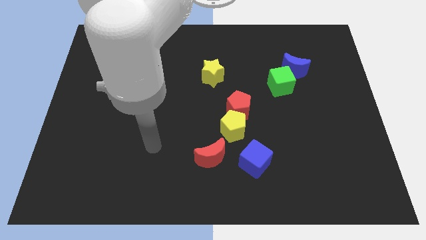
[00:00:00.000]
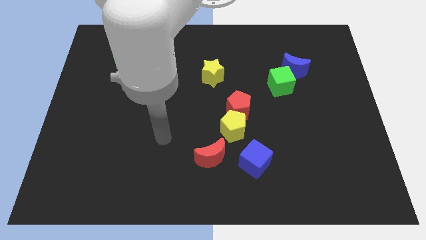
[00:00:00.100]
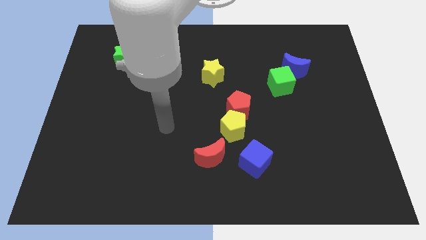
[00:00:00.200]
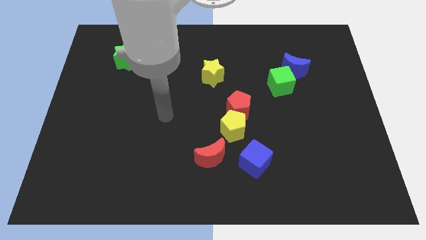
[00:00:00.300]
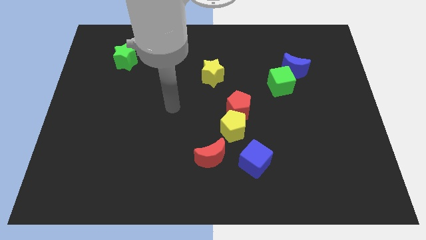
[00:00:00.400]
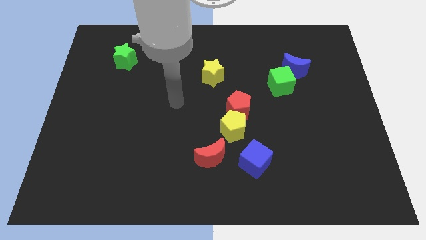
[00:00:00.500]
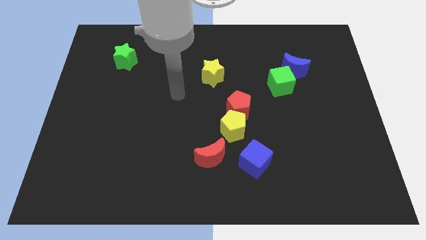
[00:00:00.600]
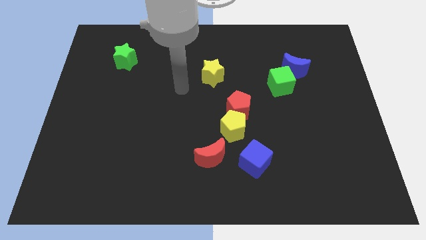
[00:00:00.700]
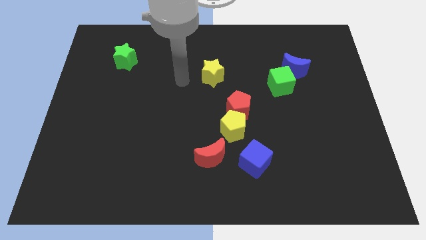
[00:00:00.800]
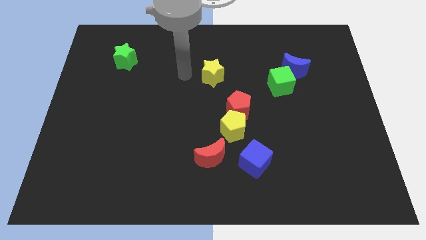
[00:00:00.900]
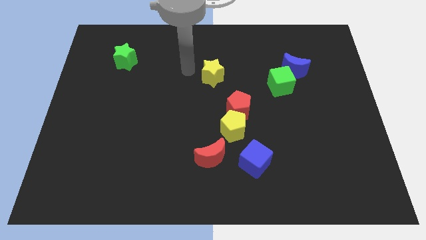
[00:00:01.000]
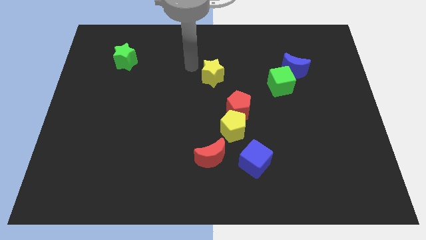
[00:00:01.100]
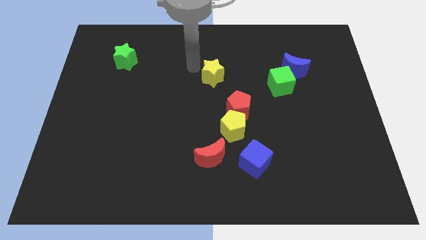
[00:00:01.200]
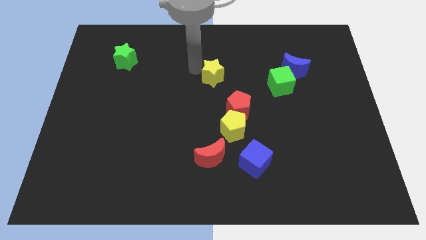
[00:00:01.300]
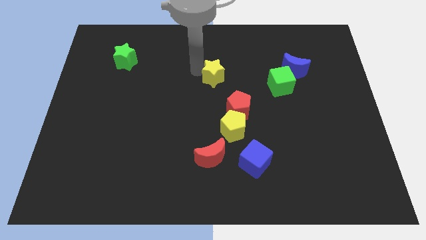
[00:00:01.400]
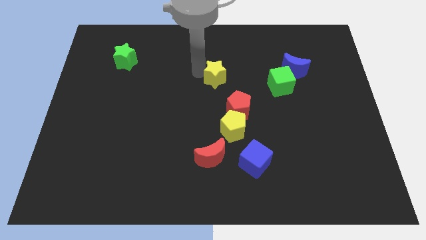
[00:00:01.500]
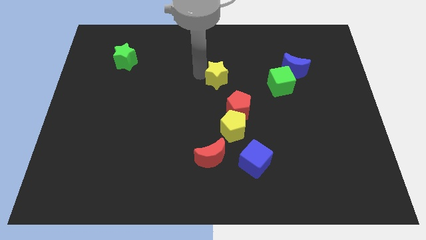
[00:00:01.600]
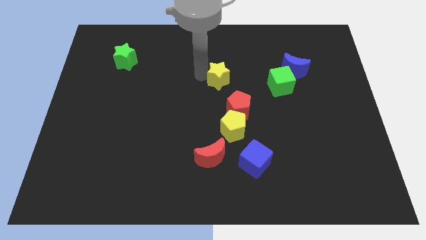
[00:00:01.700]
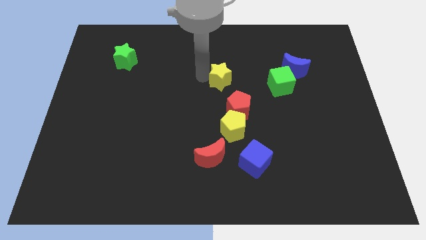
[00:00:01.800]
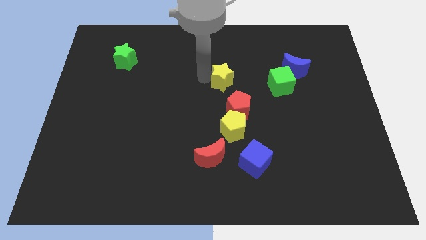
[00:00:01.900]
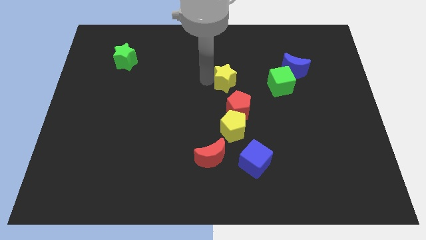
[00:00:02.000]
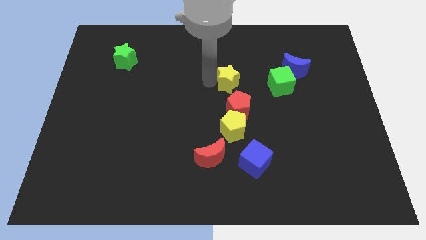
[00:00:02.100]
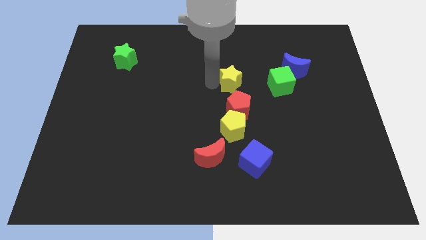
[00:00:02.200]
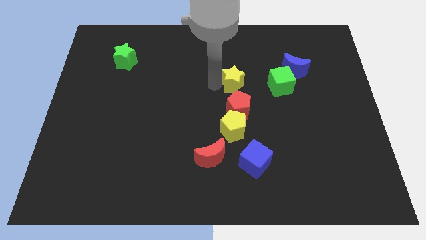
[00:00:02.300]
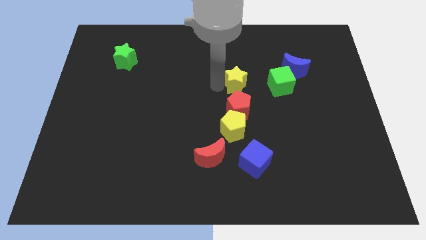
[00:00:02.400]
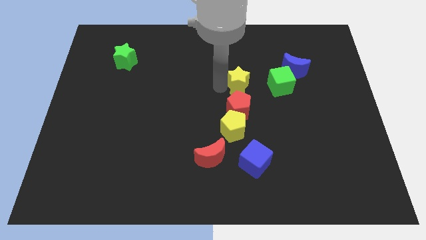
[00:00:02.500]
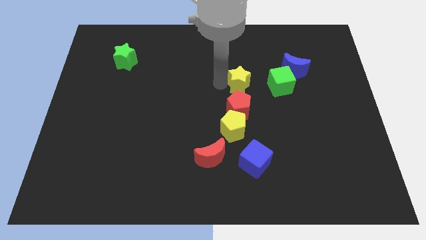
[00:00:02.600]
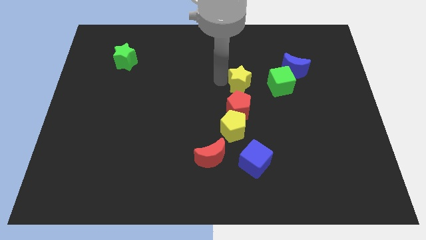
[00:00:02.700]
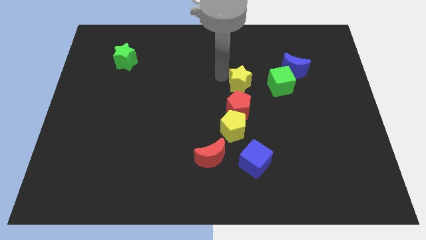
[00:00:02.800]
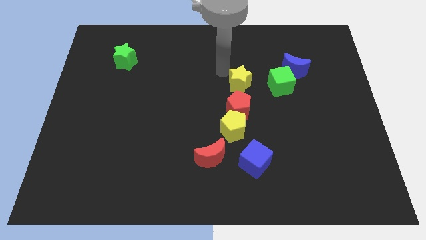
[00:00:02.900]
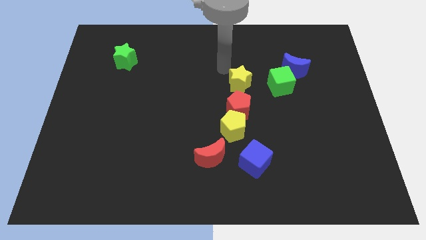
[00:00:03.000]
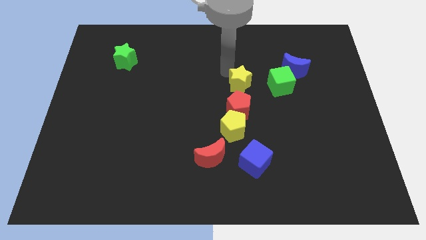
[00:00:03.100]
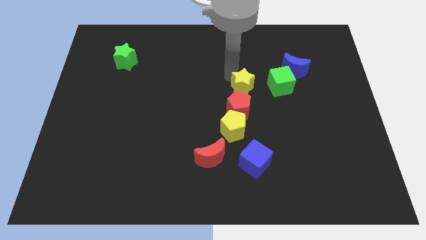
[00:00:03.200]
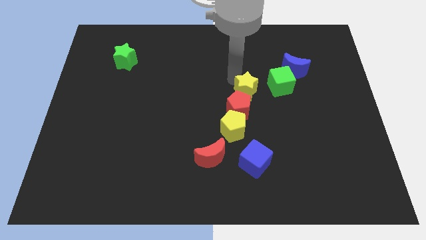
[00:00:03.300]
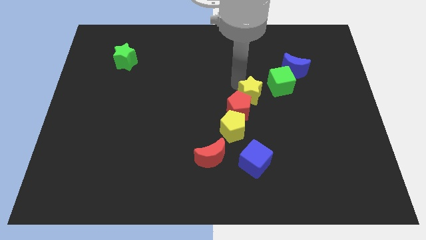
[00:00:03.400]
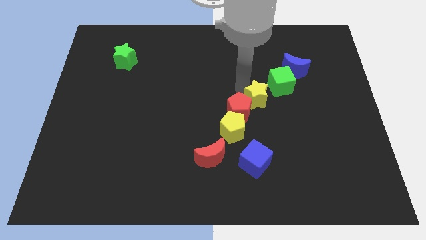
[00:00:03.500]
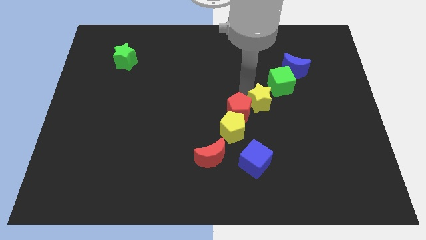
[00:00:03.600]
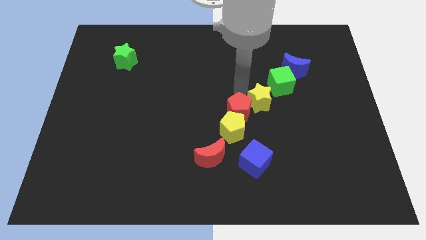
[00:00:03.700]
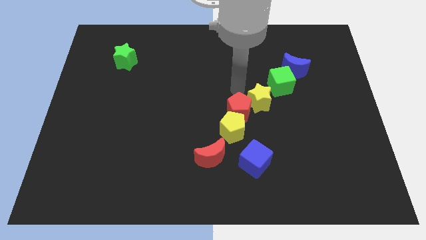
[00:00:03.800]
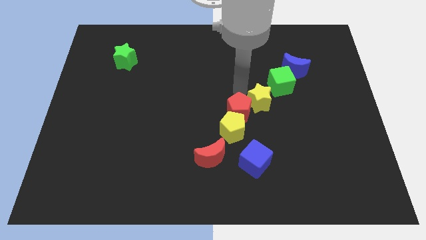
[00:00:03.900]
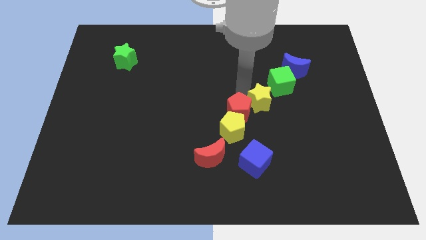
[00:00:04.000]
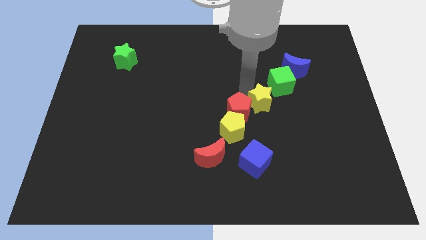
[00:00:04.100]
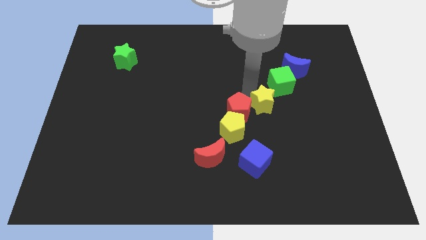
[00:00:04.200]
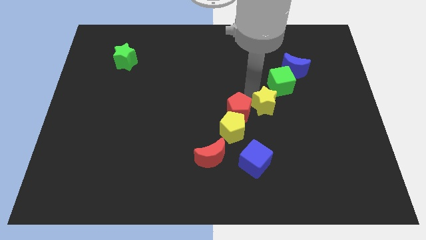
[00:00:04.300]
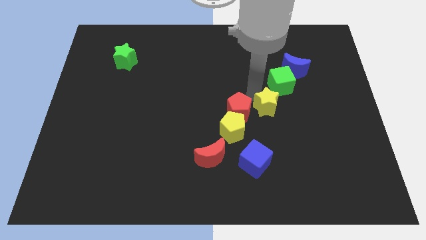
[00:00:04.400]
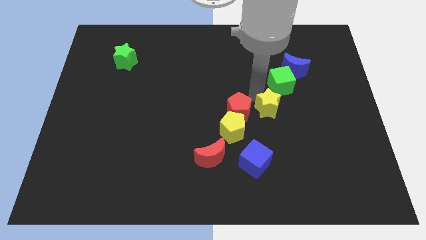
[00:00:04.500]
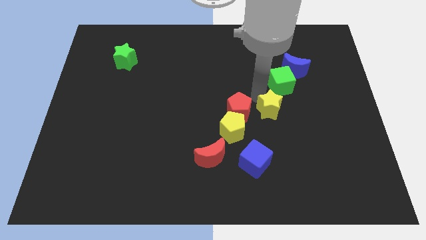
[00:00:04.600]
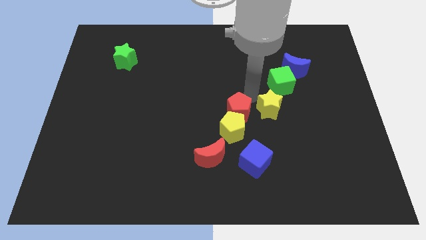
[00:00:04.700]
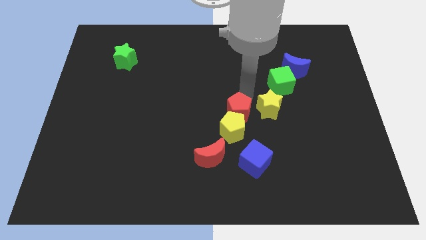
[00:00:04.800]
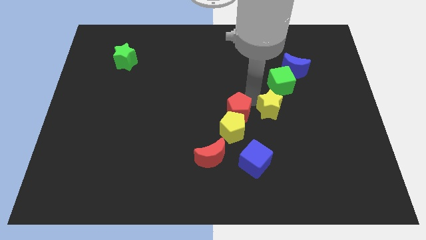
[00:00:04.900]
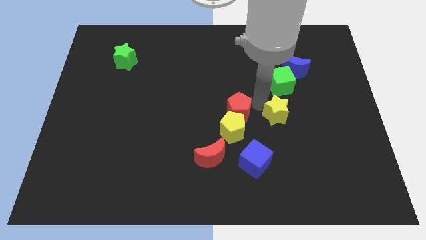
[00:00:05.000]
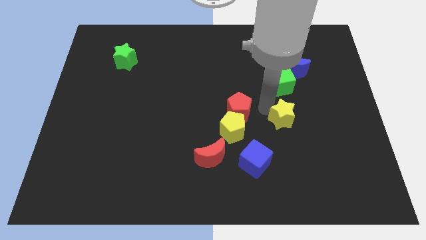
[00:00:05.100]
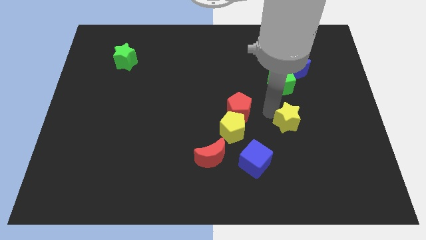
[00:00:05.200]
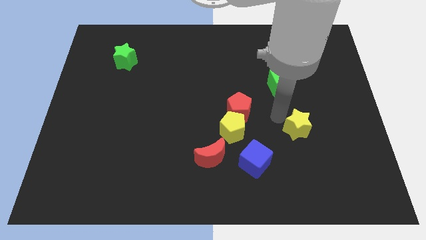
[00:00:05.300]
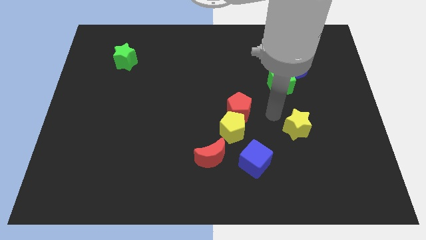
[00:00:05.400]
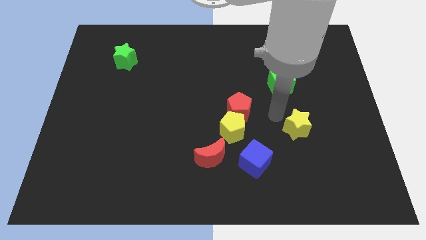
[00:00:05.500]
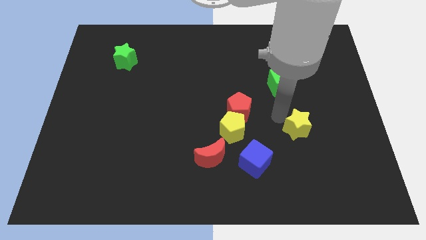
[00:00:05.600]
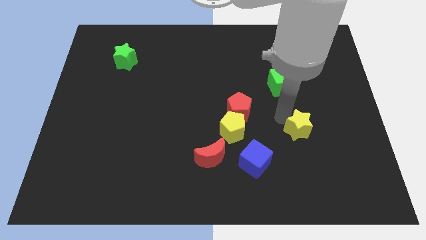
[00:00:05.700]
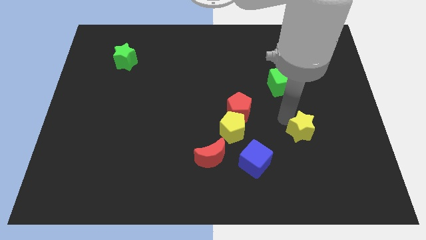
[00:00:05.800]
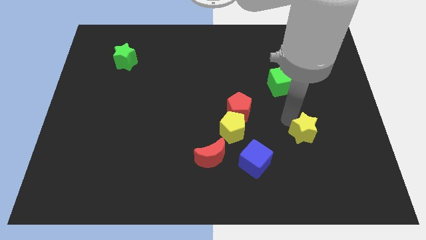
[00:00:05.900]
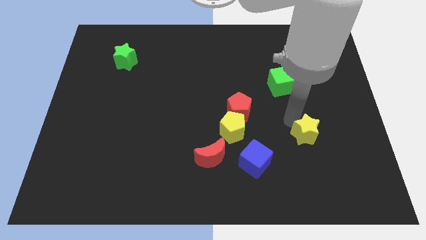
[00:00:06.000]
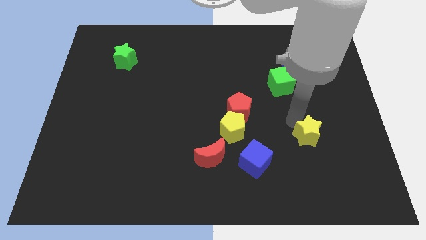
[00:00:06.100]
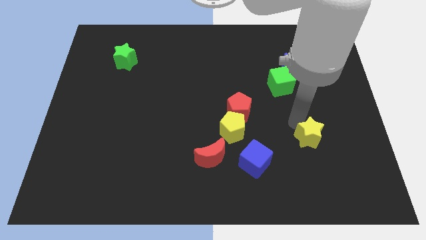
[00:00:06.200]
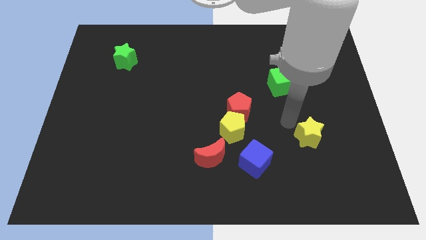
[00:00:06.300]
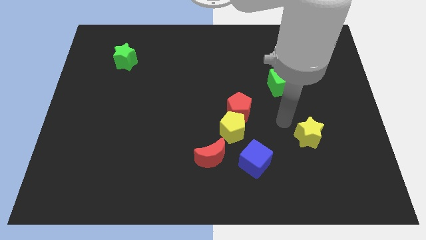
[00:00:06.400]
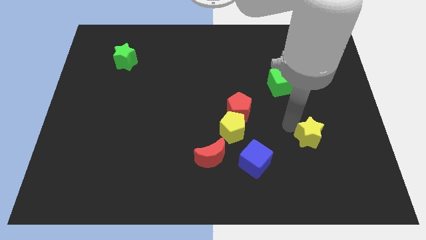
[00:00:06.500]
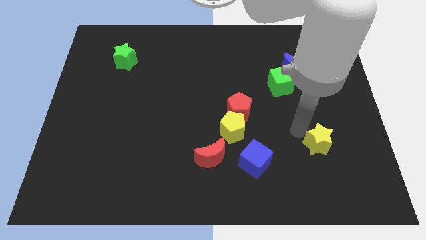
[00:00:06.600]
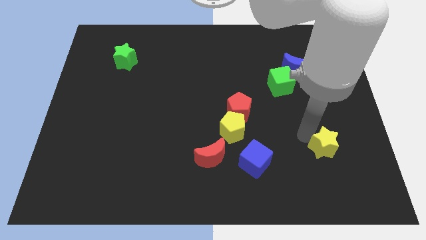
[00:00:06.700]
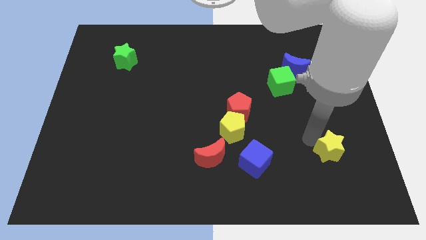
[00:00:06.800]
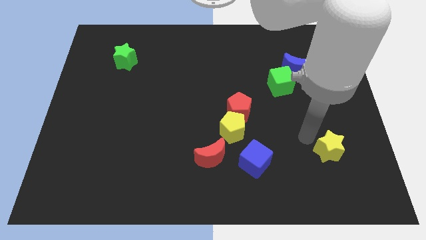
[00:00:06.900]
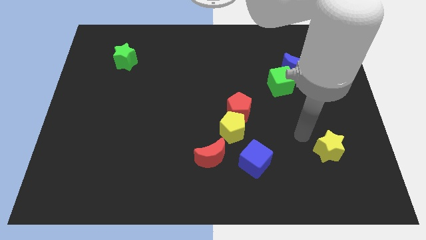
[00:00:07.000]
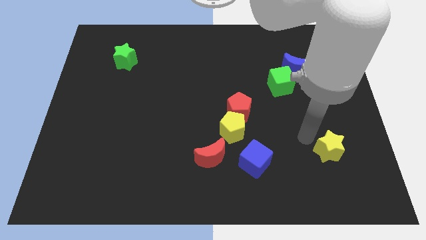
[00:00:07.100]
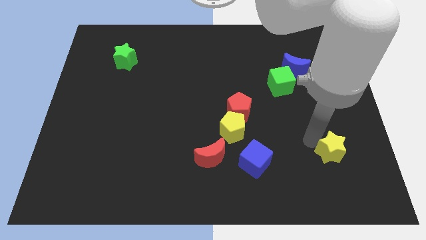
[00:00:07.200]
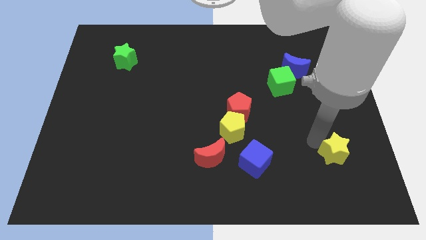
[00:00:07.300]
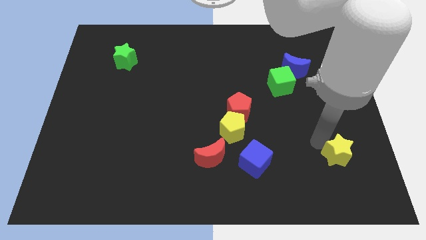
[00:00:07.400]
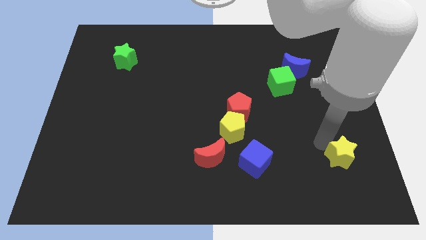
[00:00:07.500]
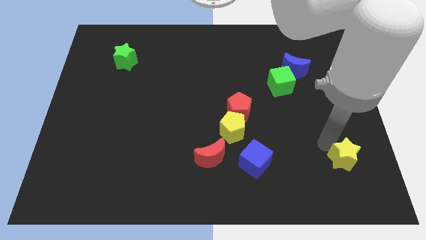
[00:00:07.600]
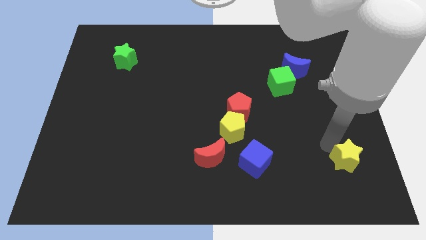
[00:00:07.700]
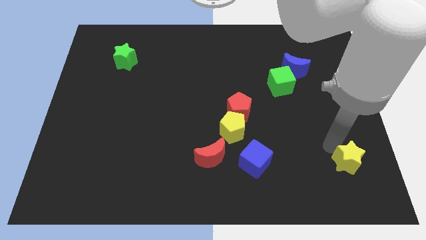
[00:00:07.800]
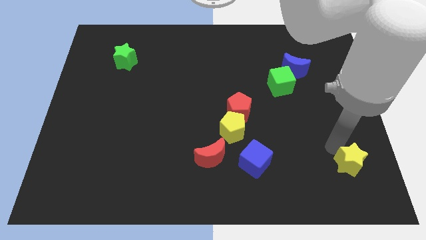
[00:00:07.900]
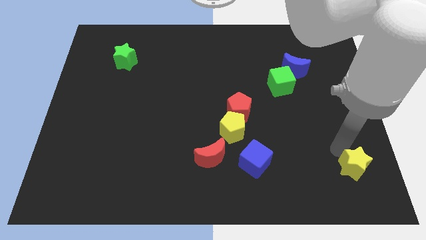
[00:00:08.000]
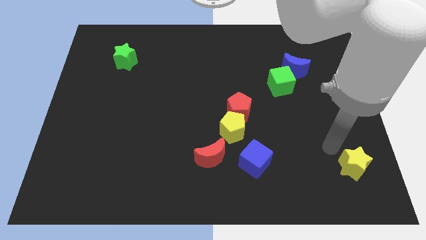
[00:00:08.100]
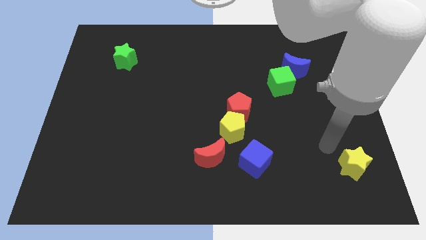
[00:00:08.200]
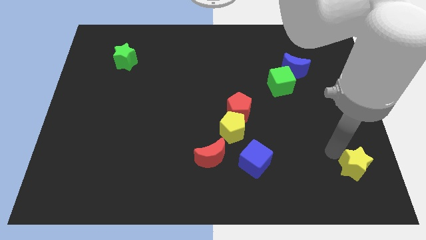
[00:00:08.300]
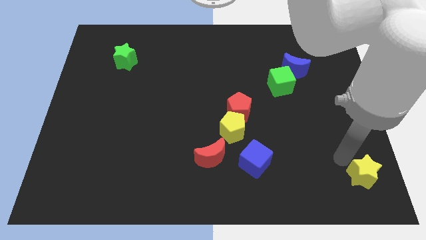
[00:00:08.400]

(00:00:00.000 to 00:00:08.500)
slide the yellow star to the lower right corner
